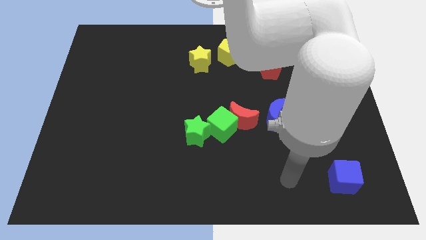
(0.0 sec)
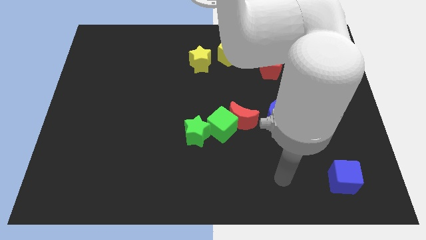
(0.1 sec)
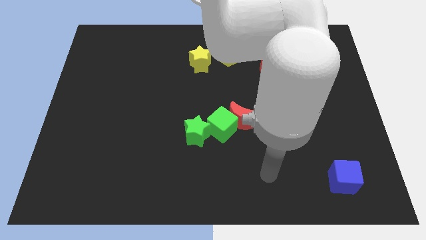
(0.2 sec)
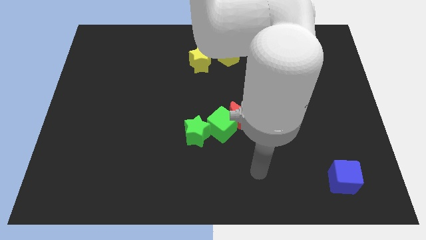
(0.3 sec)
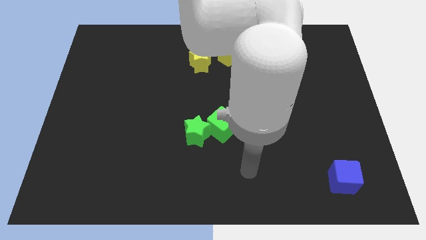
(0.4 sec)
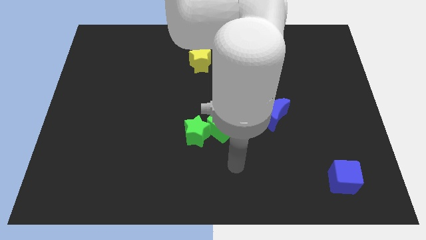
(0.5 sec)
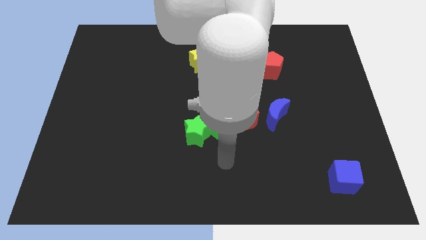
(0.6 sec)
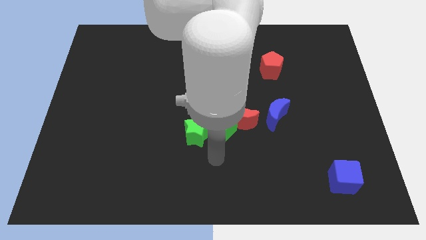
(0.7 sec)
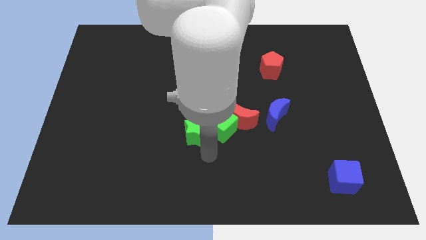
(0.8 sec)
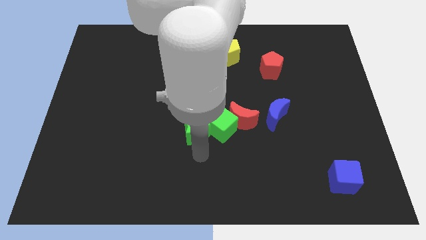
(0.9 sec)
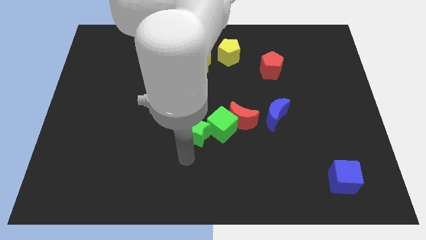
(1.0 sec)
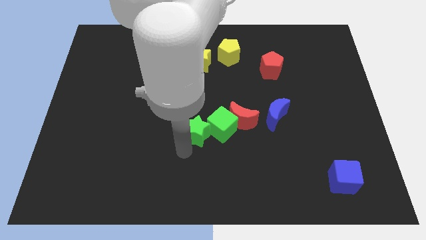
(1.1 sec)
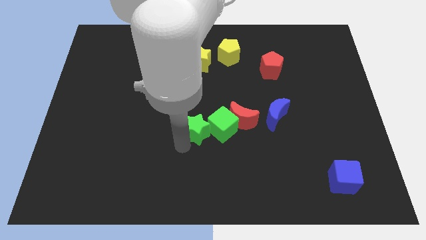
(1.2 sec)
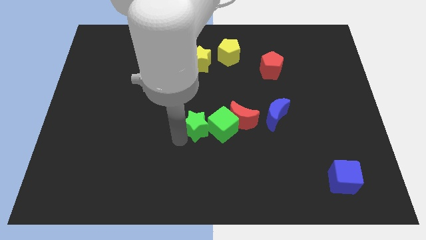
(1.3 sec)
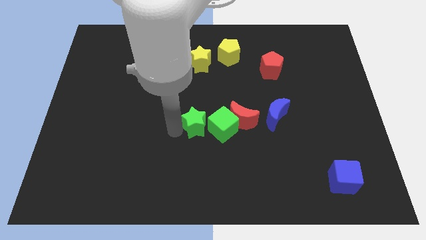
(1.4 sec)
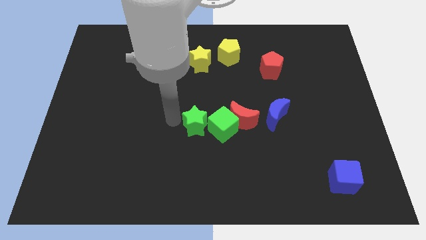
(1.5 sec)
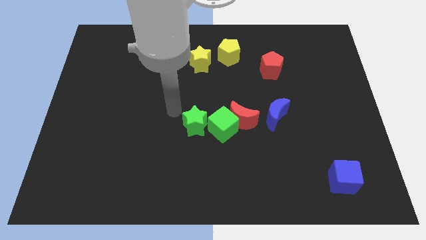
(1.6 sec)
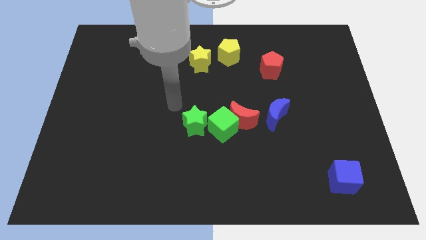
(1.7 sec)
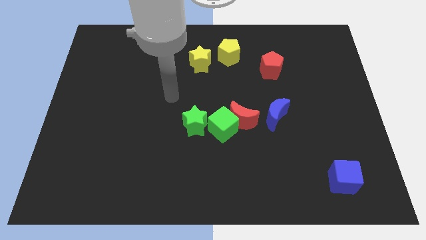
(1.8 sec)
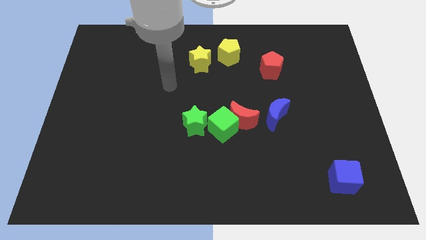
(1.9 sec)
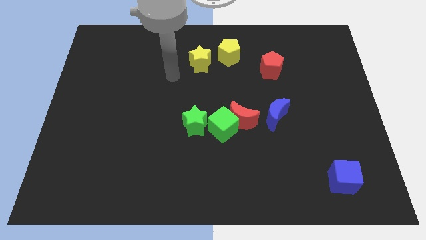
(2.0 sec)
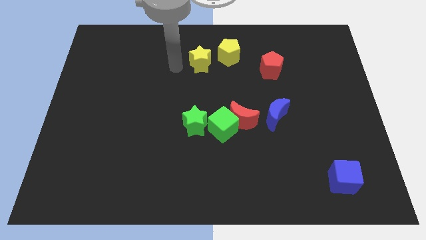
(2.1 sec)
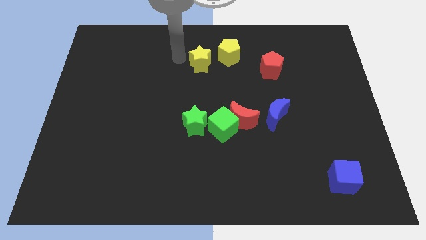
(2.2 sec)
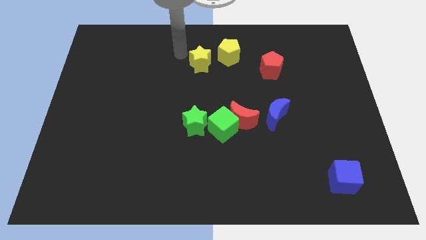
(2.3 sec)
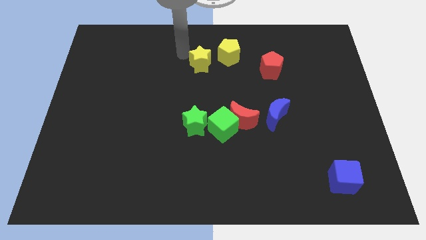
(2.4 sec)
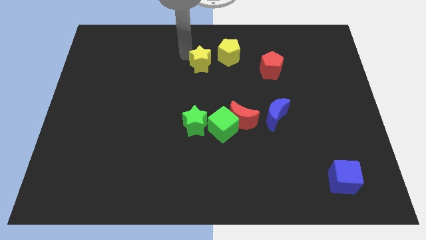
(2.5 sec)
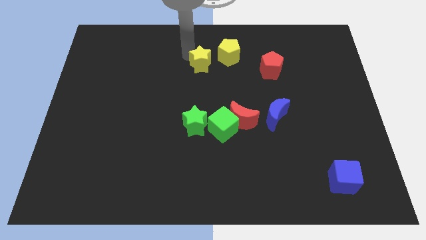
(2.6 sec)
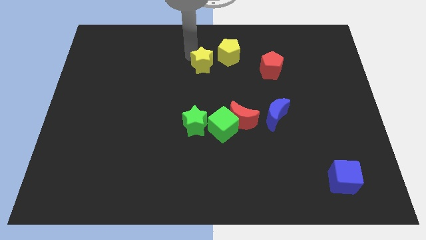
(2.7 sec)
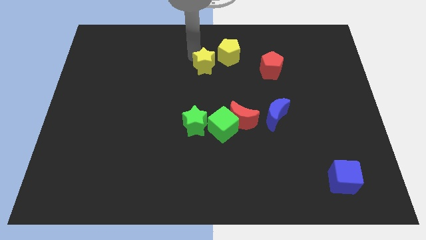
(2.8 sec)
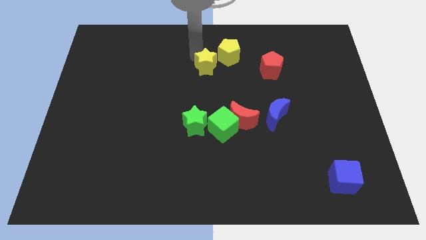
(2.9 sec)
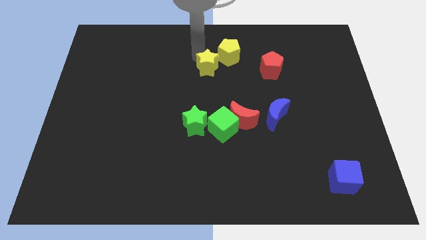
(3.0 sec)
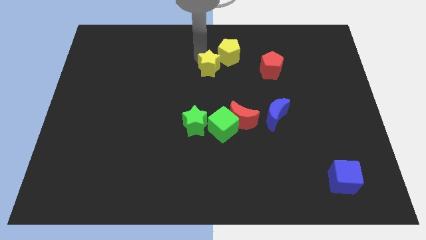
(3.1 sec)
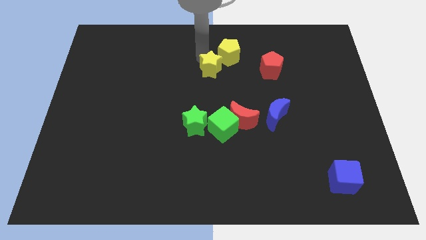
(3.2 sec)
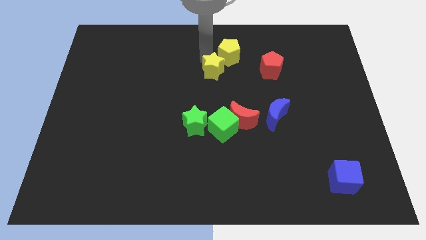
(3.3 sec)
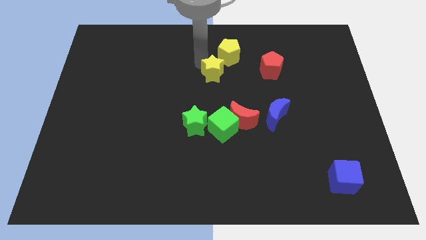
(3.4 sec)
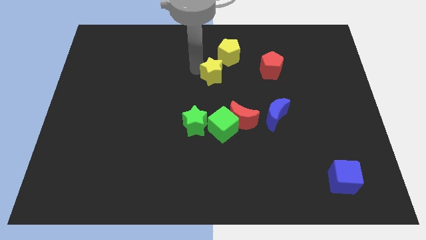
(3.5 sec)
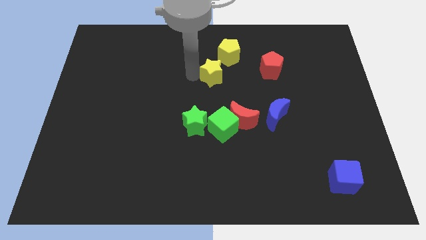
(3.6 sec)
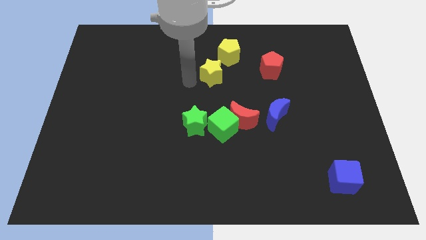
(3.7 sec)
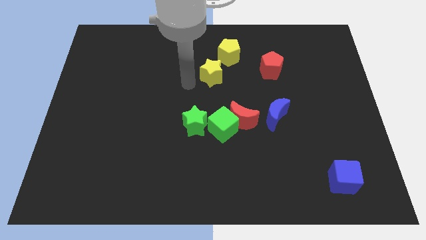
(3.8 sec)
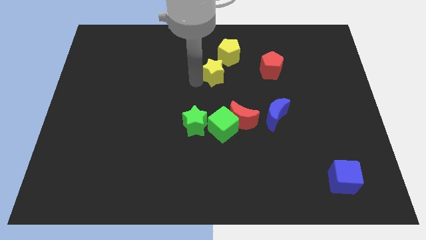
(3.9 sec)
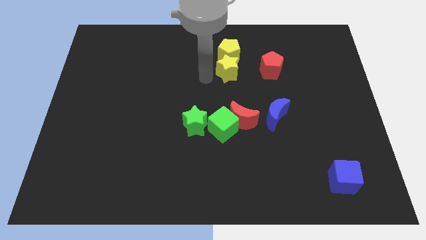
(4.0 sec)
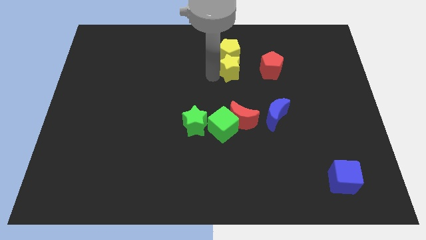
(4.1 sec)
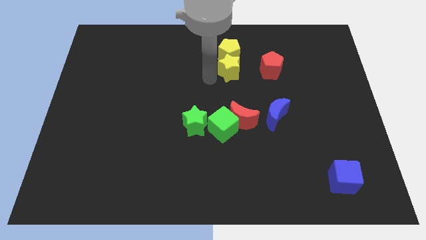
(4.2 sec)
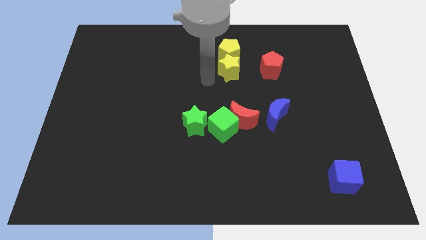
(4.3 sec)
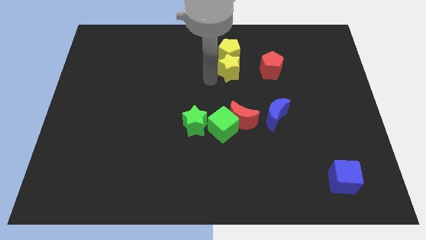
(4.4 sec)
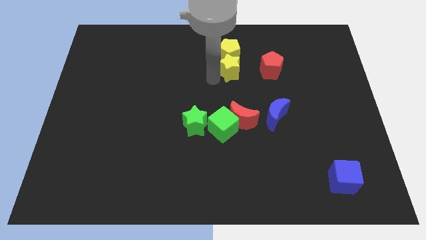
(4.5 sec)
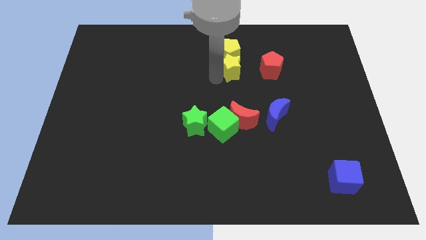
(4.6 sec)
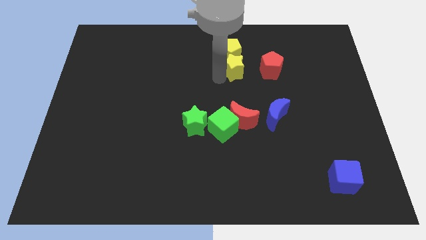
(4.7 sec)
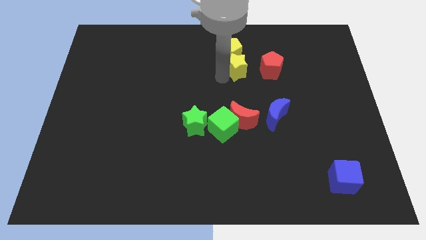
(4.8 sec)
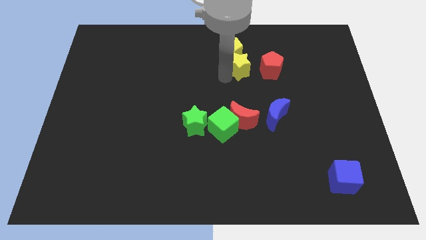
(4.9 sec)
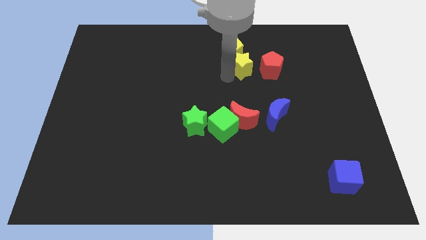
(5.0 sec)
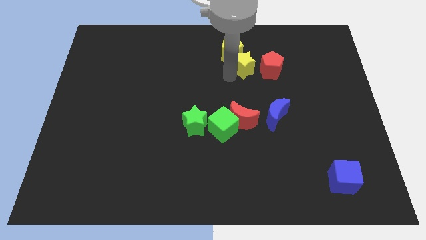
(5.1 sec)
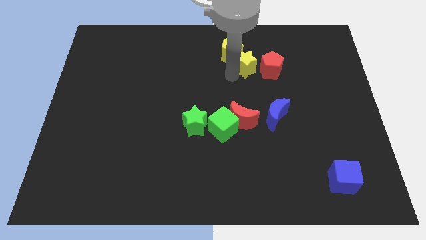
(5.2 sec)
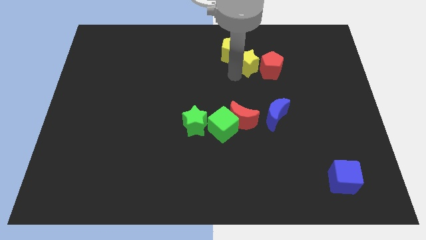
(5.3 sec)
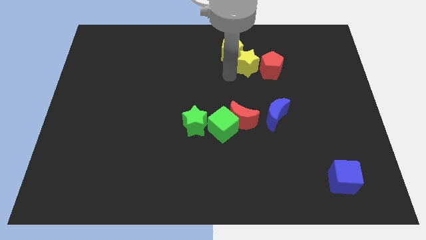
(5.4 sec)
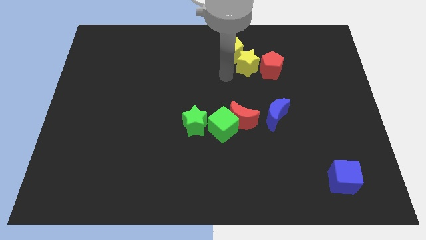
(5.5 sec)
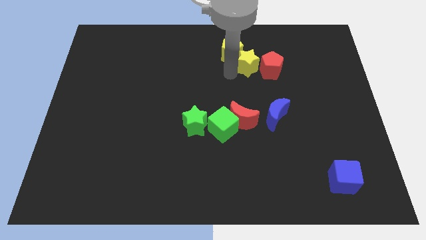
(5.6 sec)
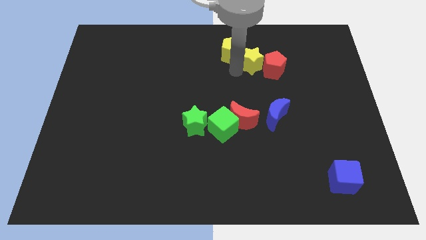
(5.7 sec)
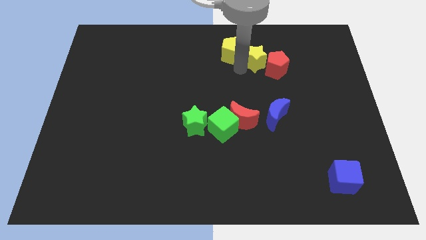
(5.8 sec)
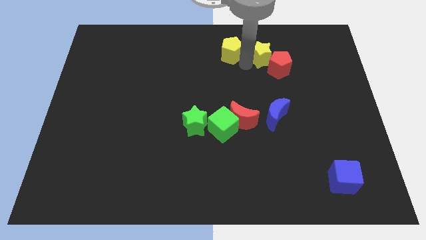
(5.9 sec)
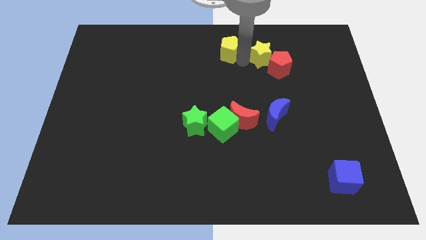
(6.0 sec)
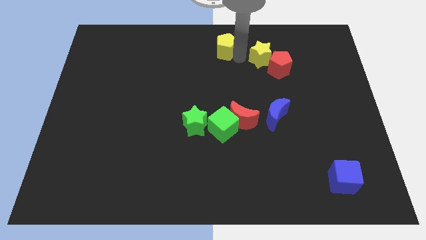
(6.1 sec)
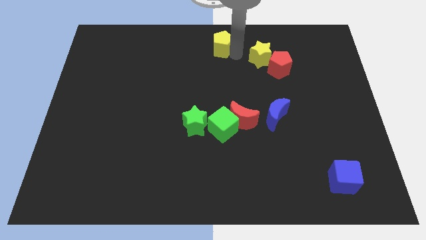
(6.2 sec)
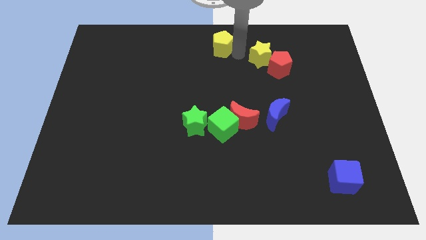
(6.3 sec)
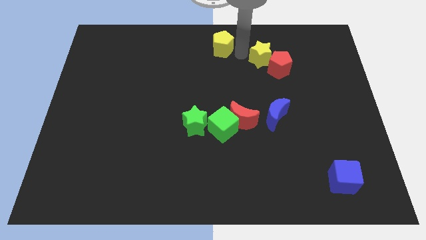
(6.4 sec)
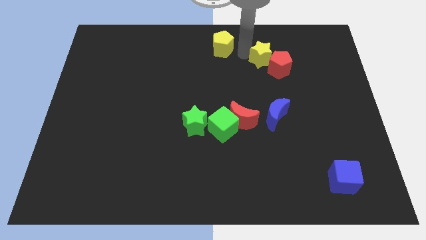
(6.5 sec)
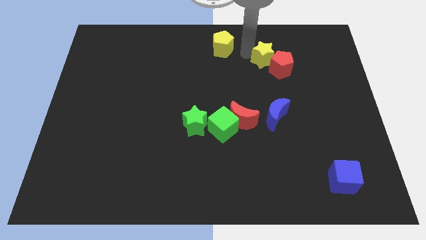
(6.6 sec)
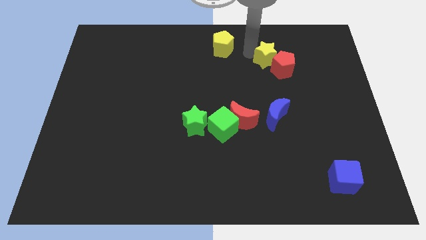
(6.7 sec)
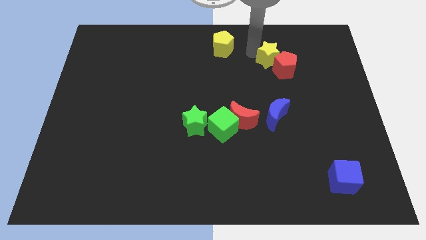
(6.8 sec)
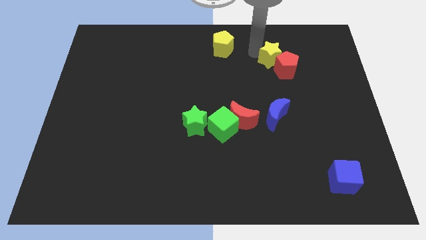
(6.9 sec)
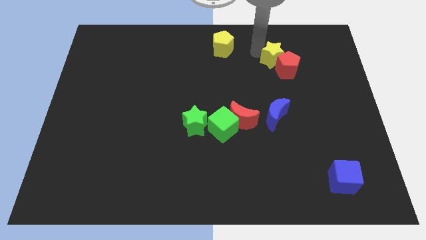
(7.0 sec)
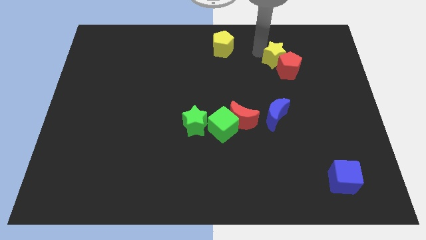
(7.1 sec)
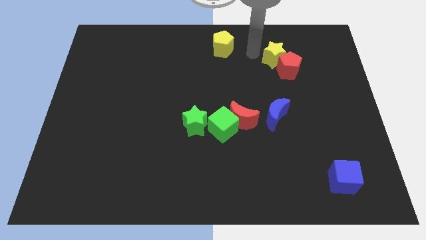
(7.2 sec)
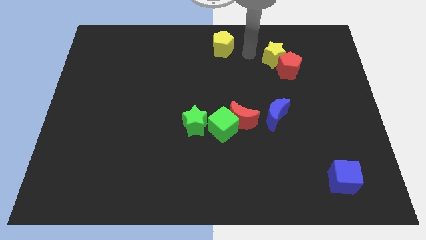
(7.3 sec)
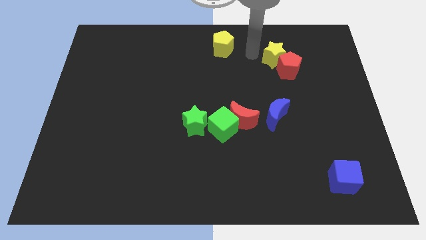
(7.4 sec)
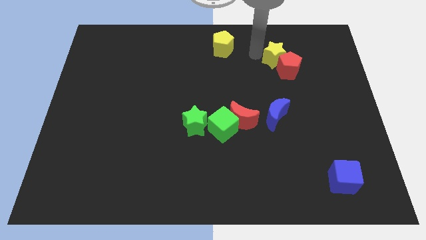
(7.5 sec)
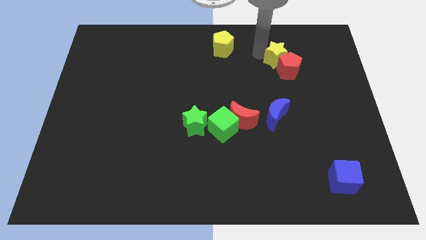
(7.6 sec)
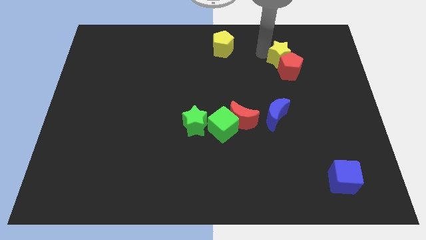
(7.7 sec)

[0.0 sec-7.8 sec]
push the yellow star right
